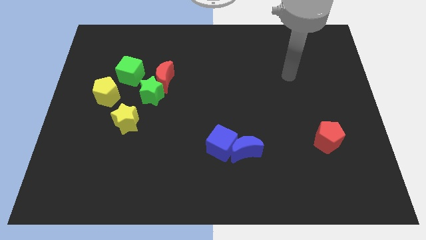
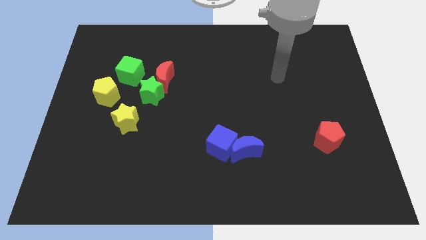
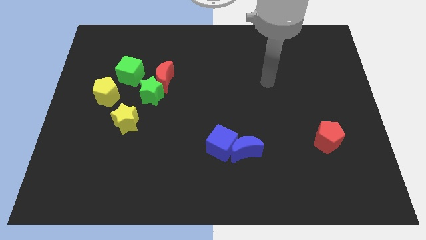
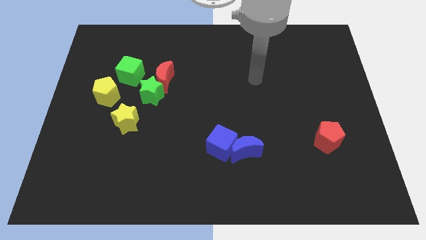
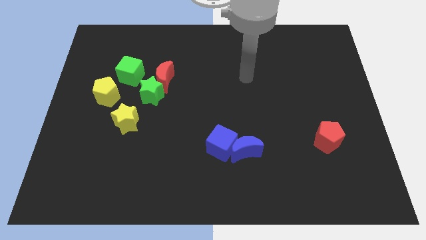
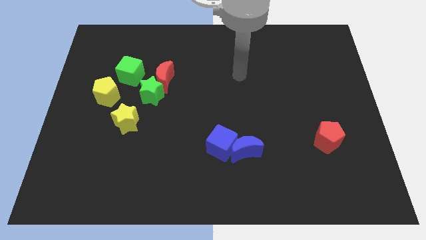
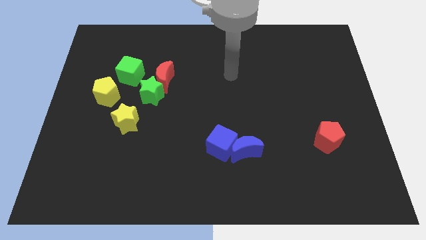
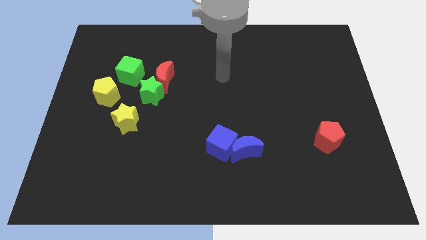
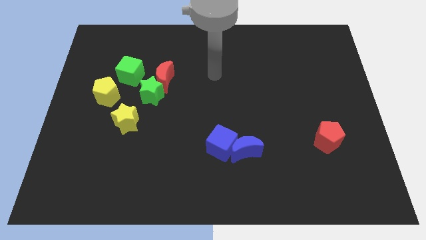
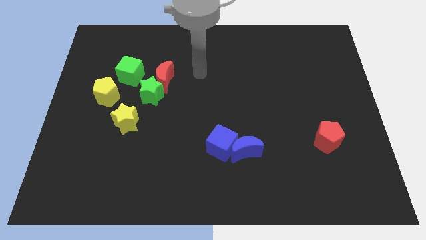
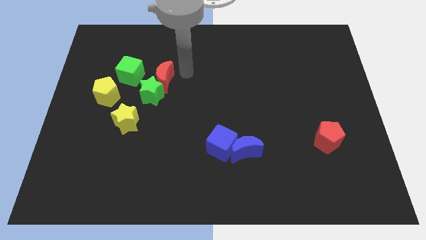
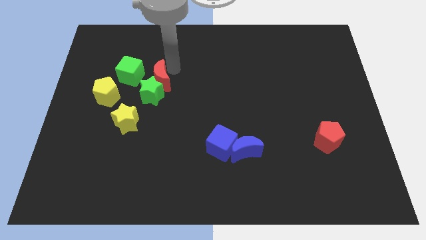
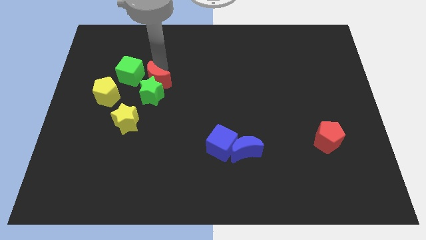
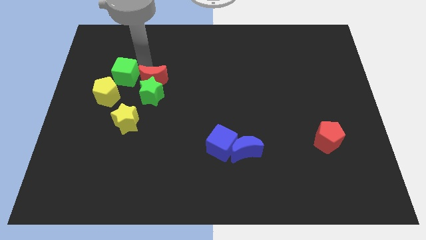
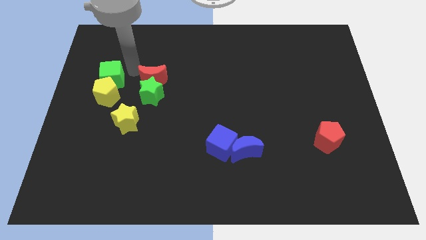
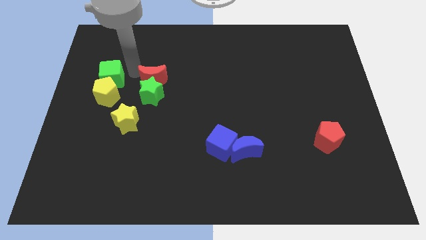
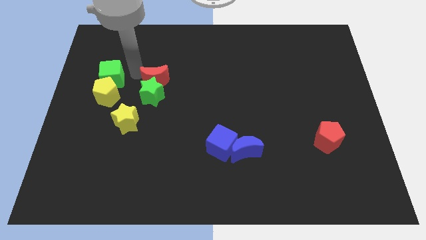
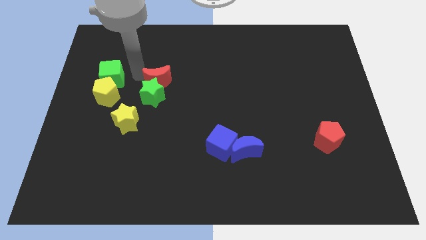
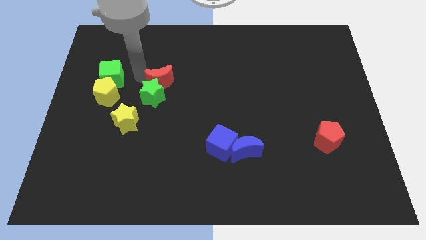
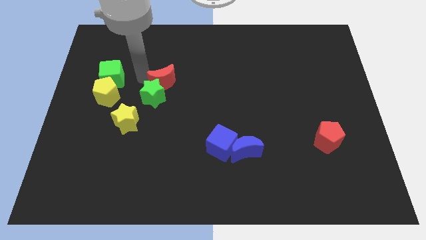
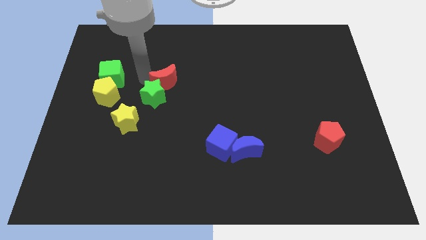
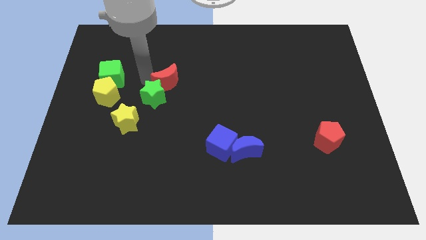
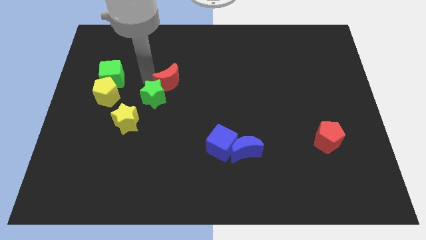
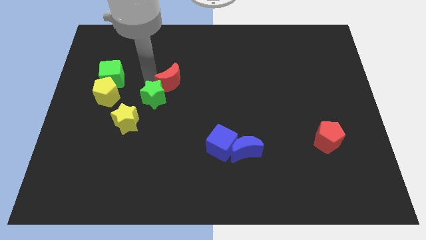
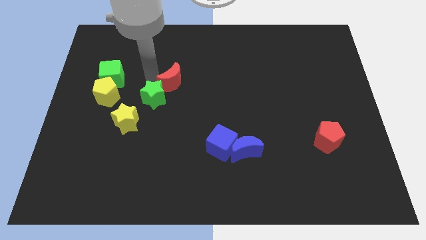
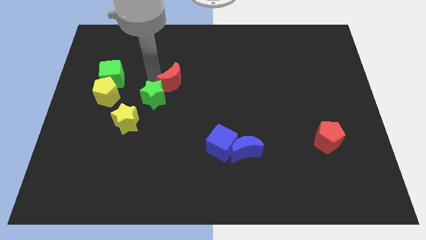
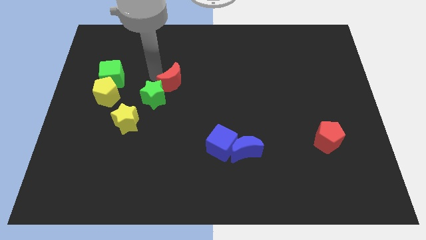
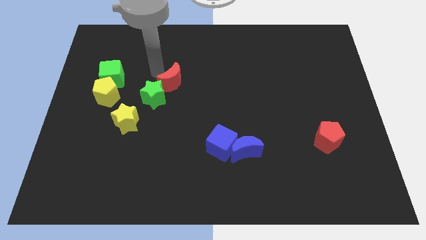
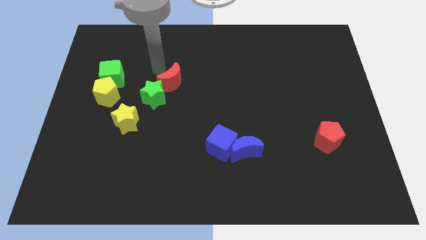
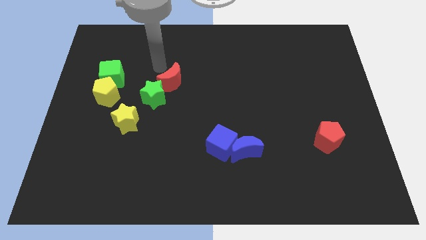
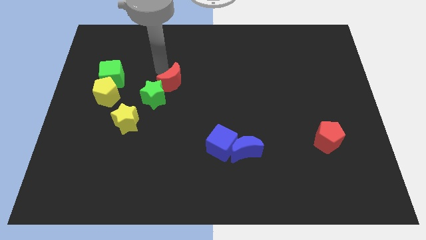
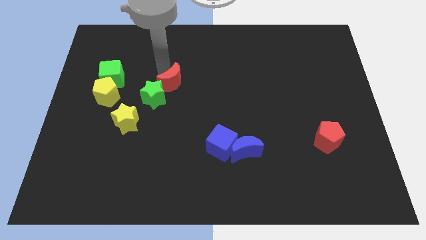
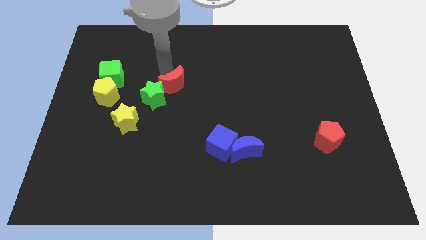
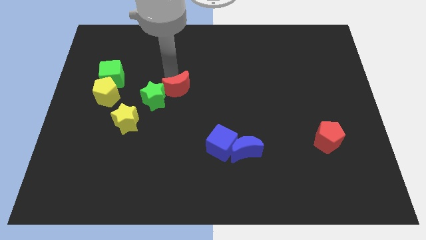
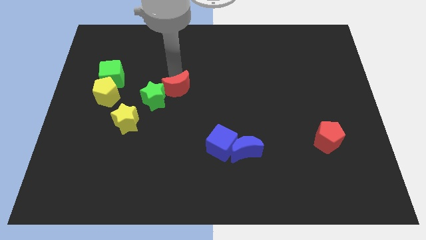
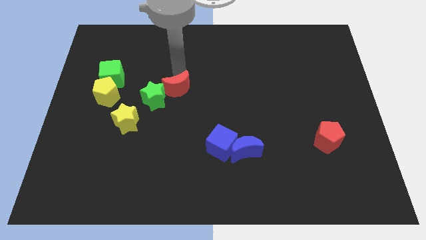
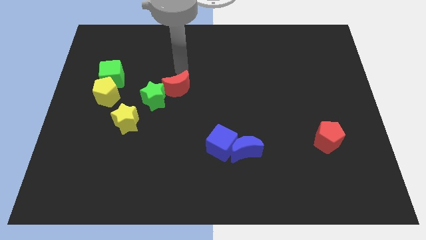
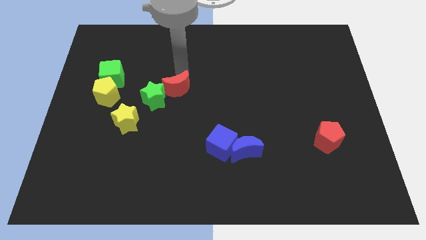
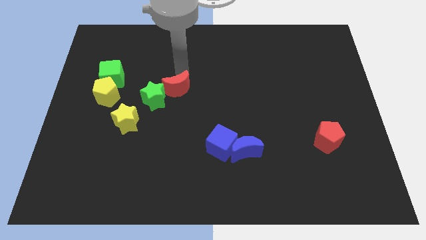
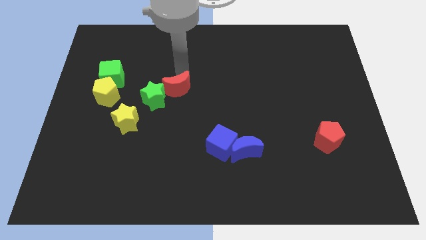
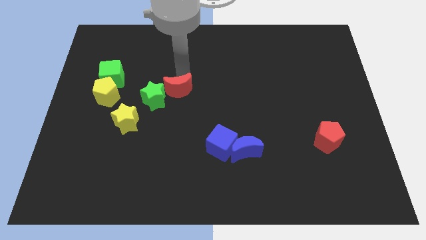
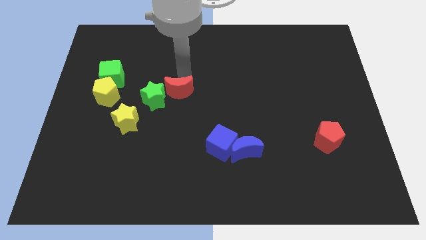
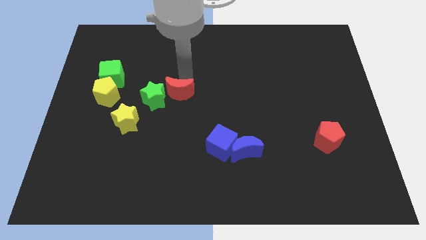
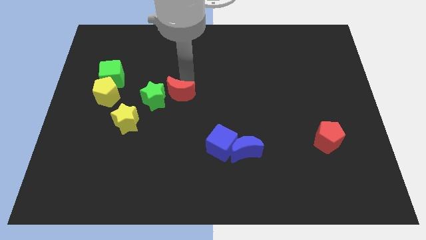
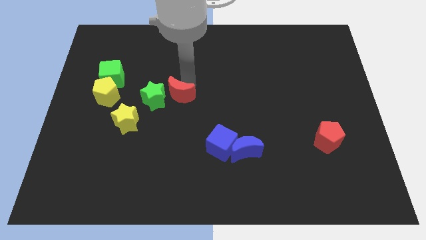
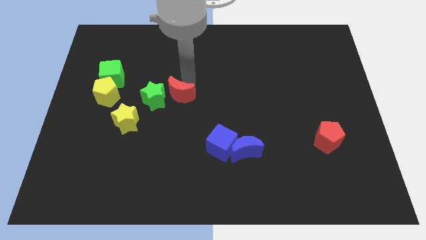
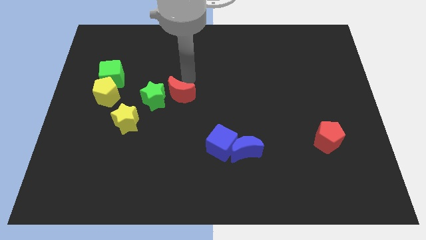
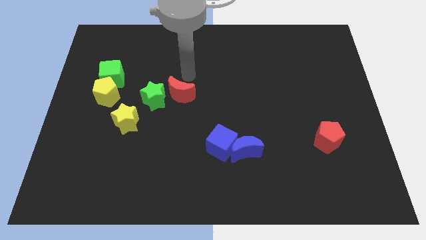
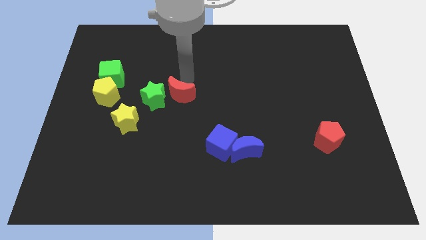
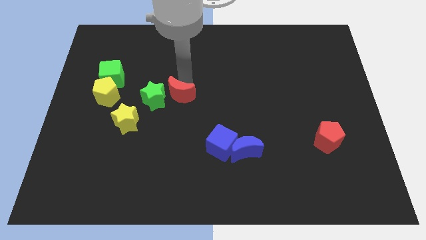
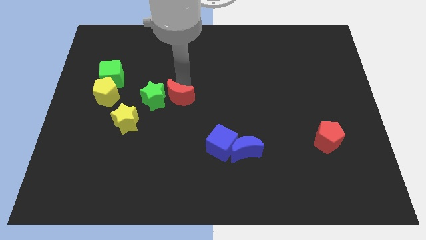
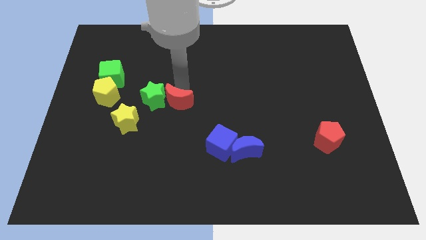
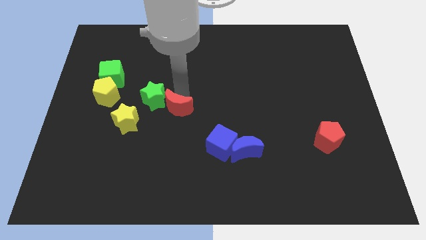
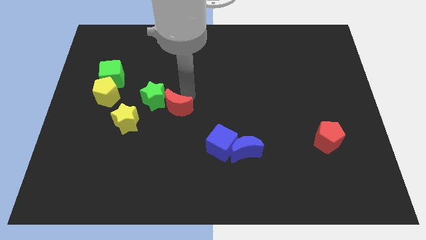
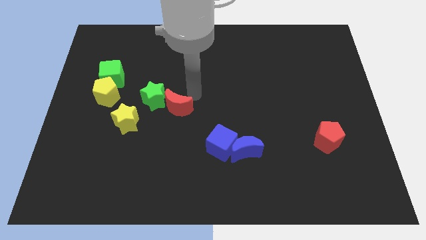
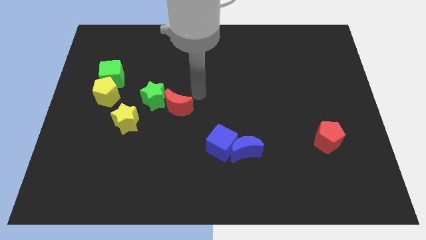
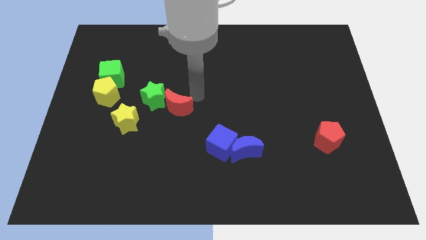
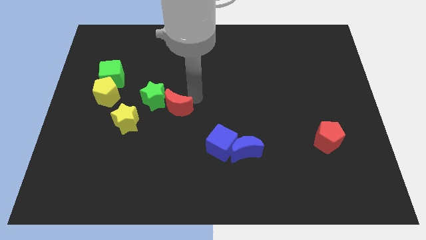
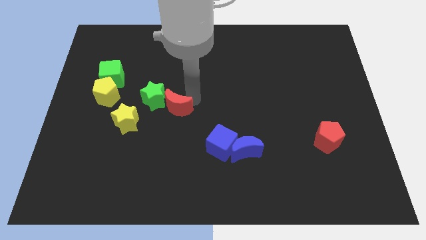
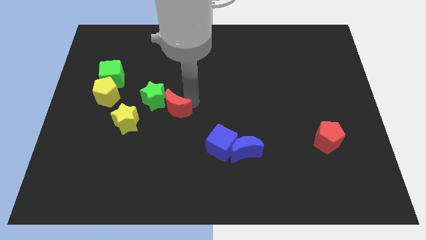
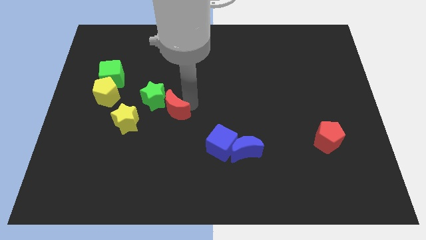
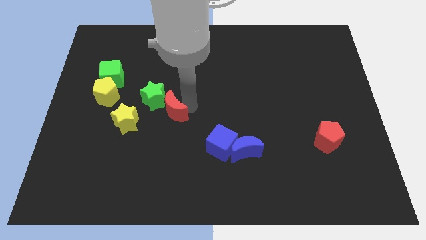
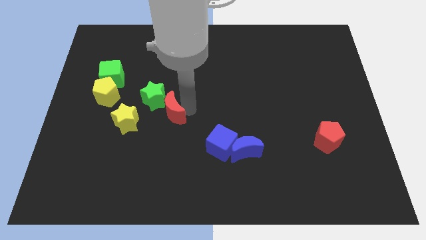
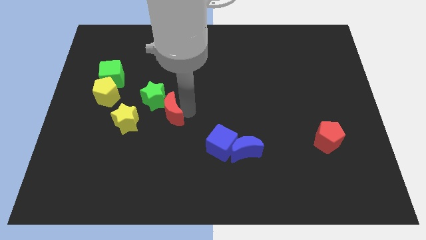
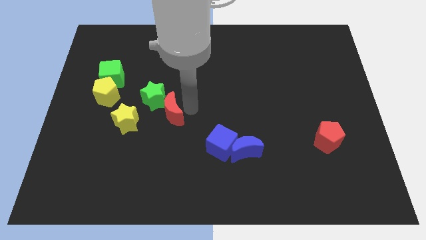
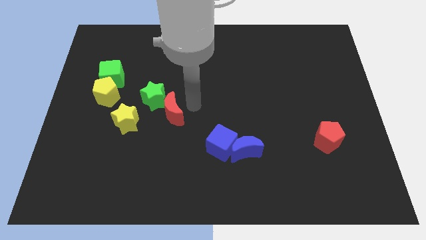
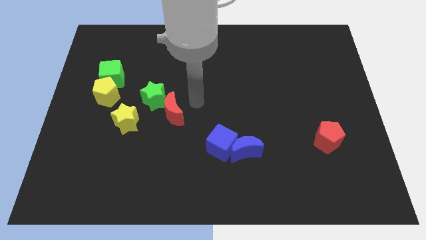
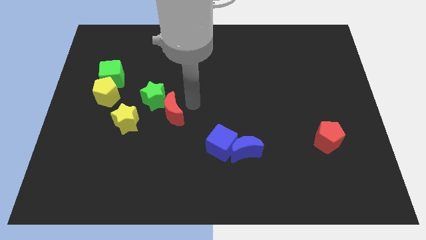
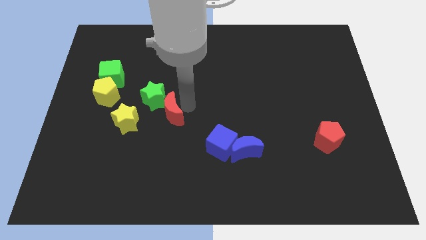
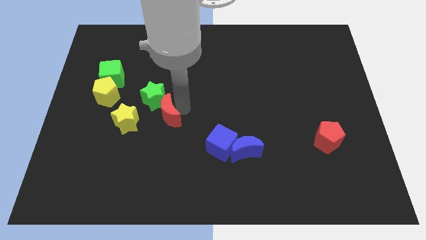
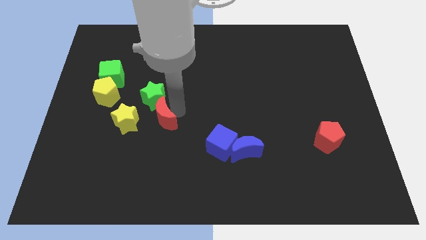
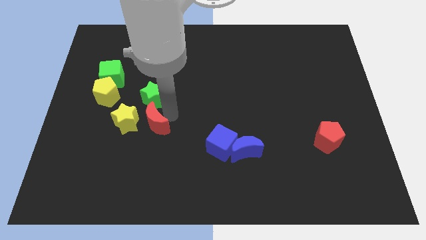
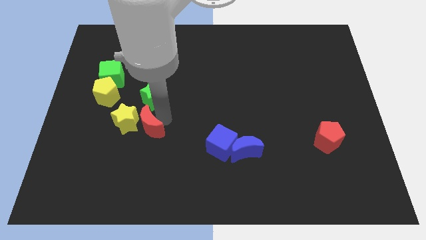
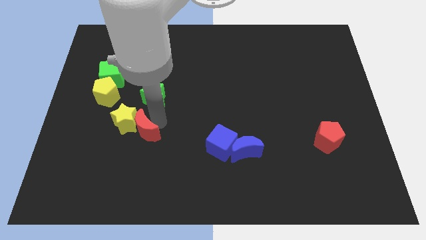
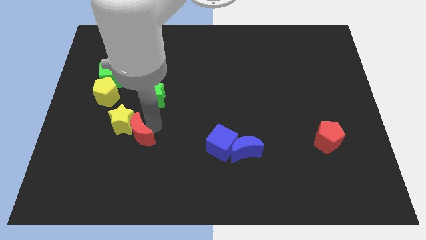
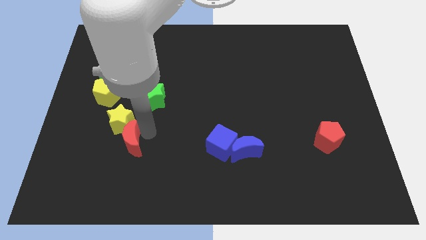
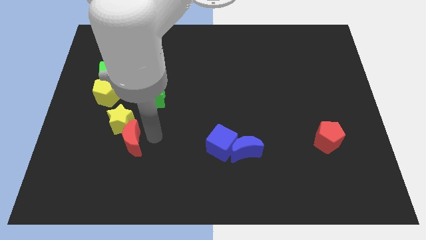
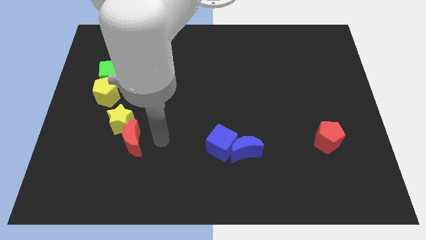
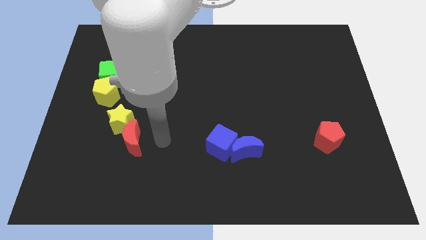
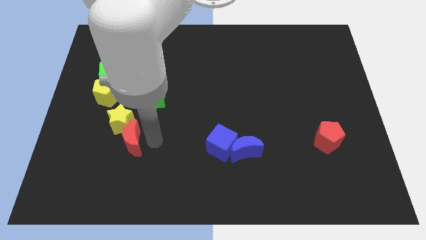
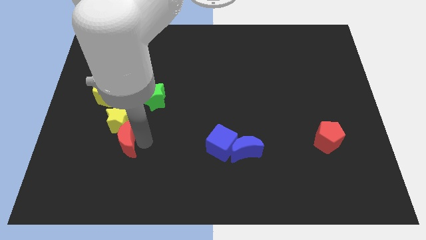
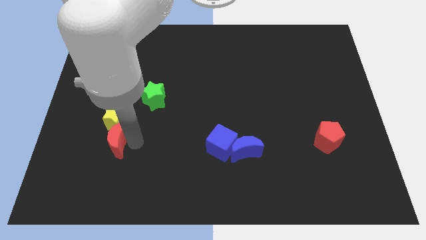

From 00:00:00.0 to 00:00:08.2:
slide the red moon diagonally down and to the left of the yellow star
